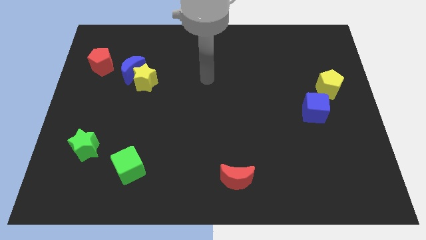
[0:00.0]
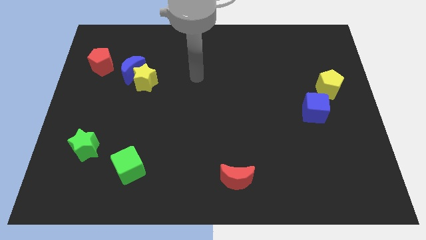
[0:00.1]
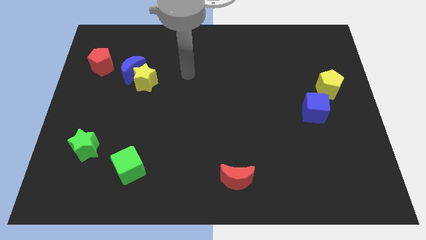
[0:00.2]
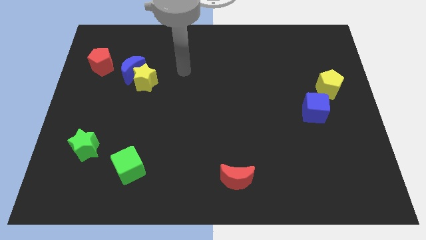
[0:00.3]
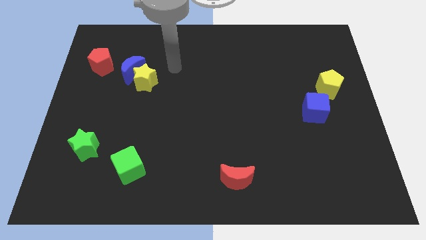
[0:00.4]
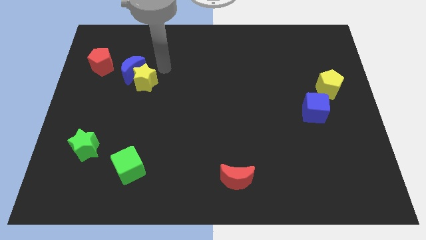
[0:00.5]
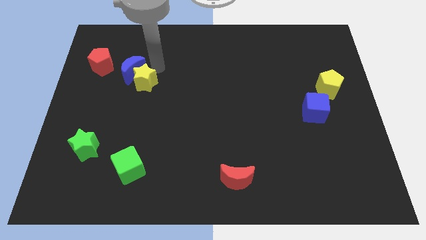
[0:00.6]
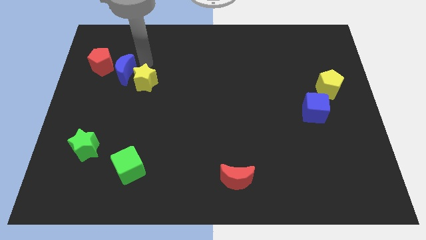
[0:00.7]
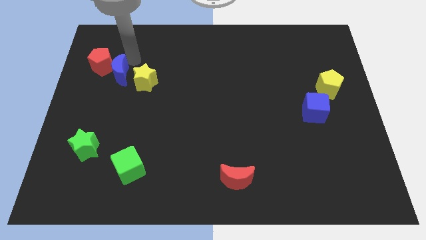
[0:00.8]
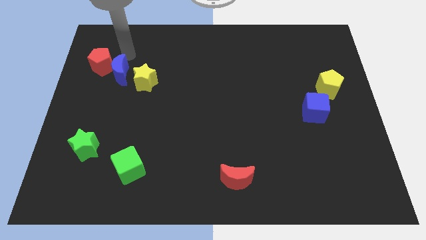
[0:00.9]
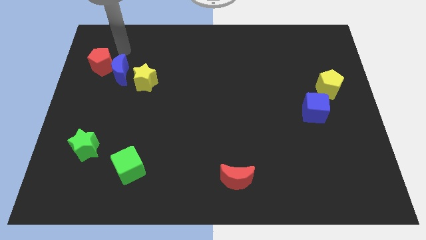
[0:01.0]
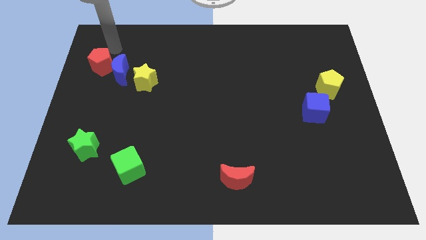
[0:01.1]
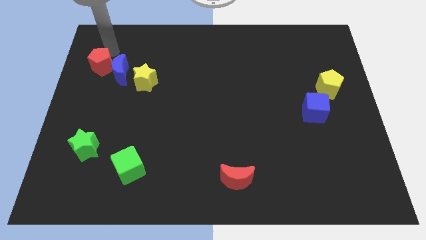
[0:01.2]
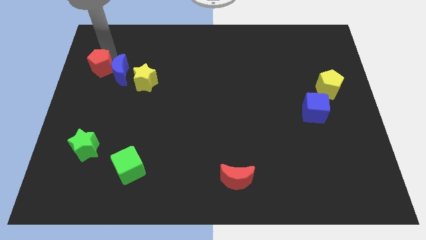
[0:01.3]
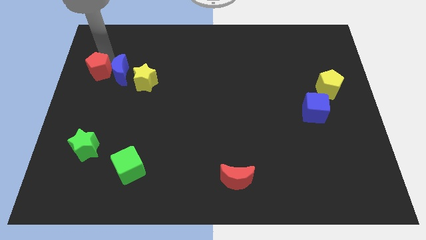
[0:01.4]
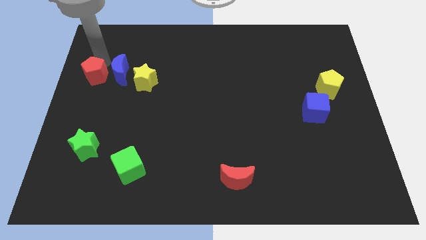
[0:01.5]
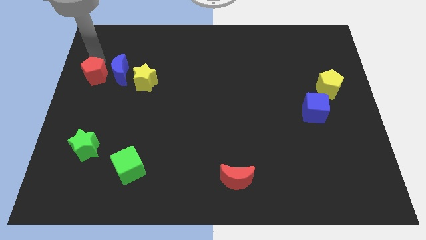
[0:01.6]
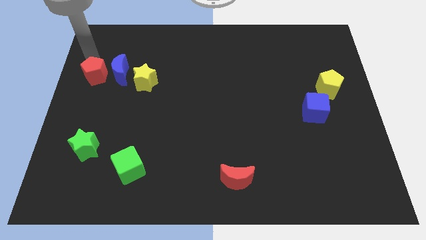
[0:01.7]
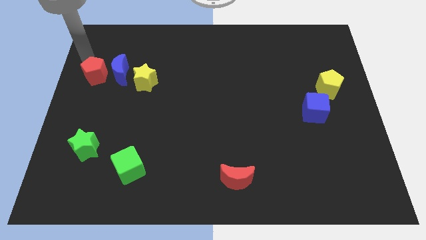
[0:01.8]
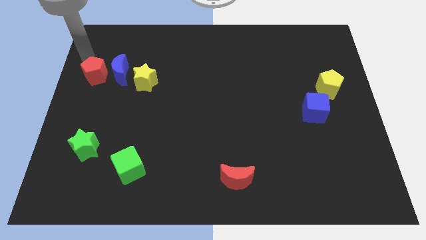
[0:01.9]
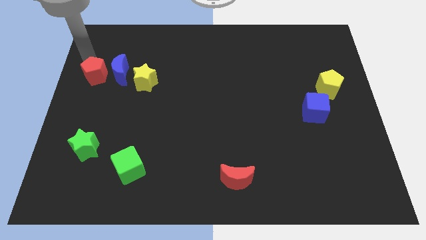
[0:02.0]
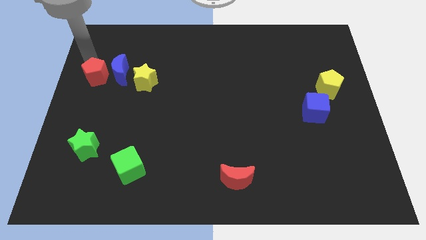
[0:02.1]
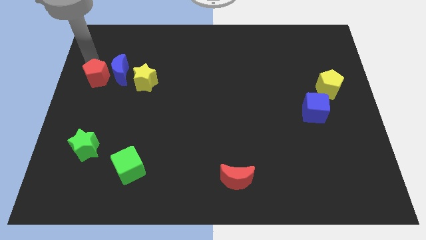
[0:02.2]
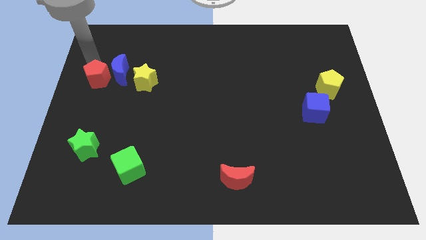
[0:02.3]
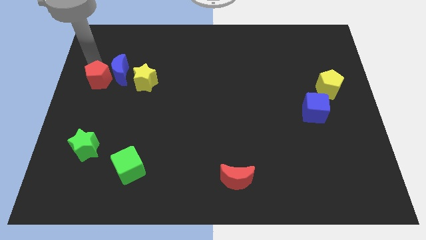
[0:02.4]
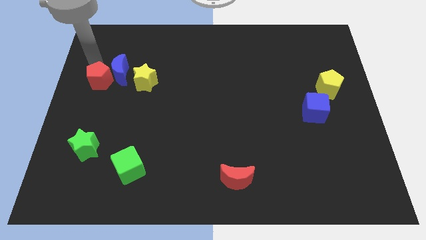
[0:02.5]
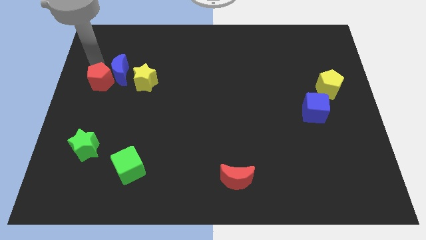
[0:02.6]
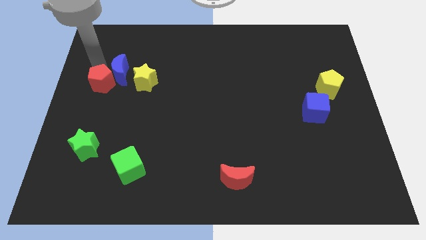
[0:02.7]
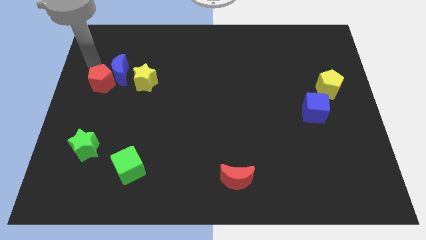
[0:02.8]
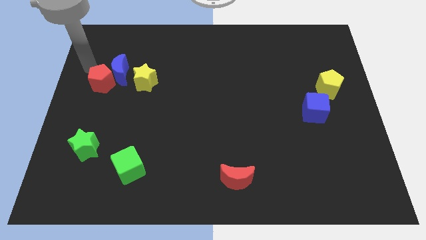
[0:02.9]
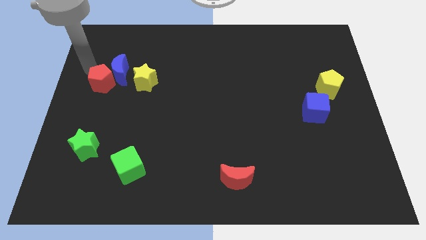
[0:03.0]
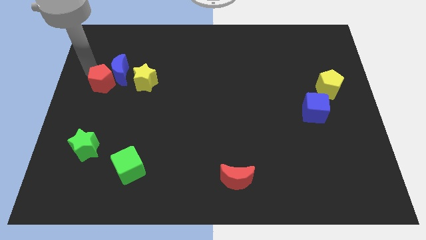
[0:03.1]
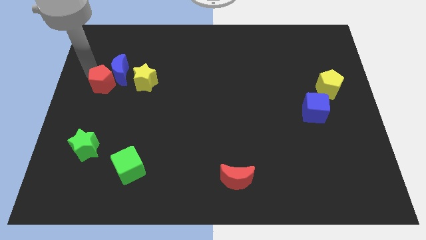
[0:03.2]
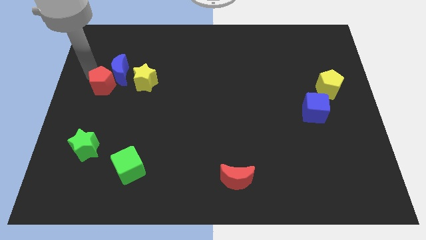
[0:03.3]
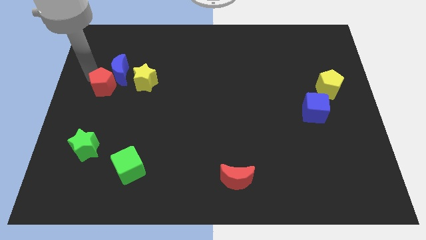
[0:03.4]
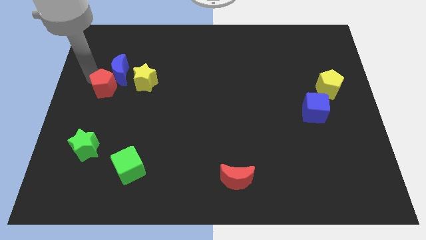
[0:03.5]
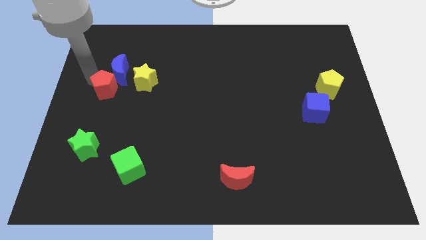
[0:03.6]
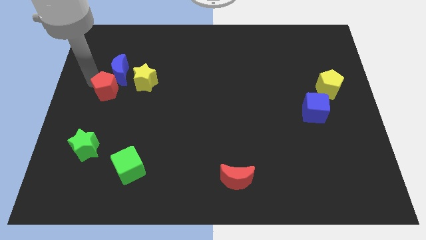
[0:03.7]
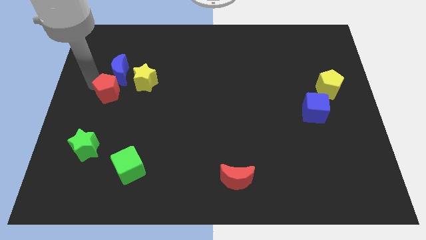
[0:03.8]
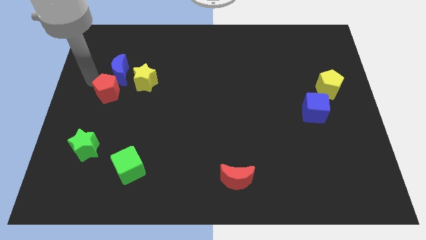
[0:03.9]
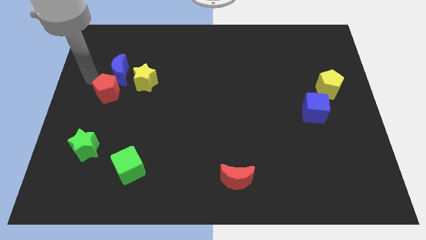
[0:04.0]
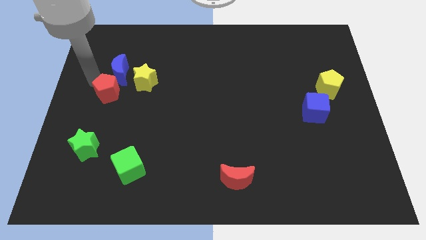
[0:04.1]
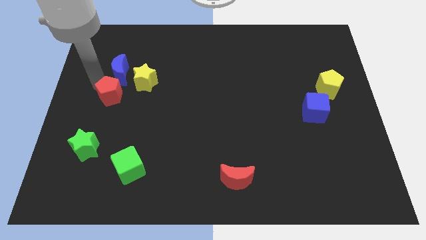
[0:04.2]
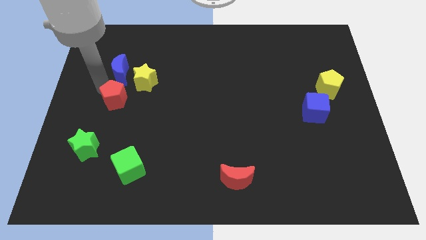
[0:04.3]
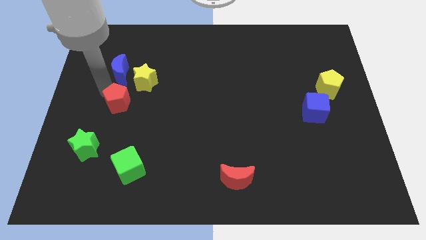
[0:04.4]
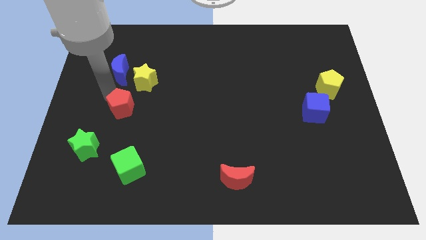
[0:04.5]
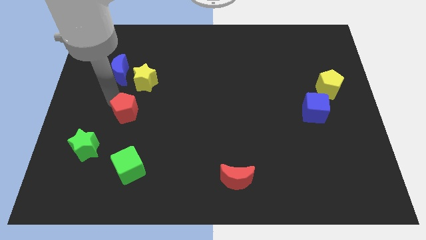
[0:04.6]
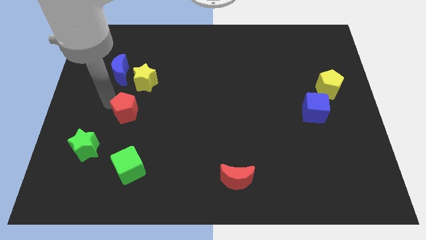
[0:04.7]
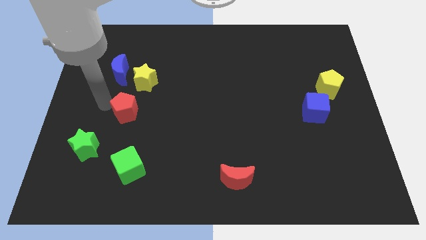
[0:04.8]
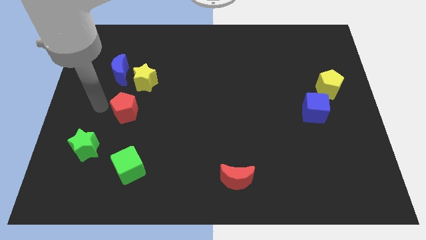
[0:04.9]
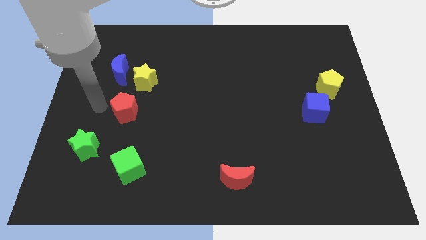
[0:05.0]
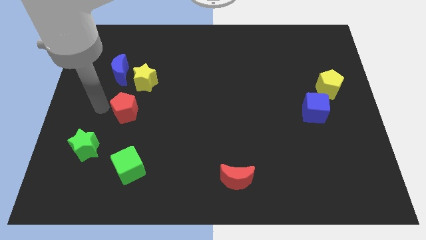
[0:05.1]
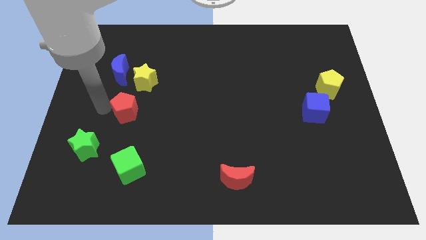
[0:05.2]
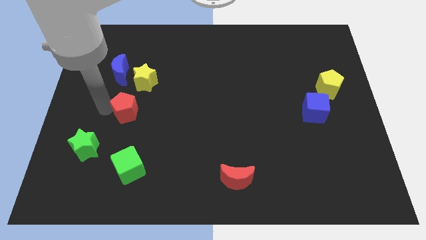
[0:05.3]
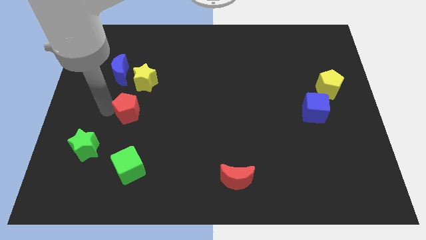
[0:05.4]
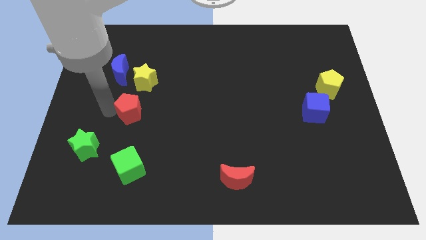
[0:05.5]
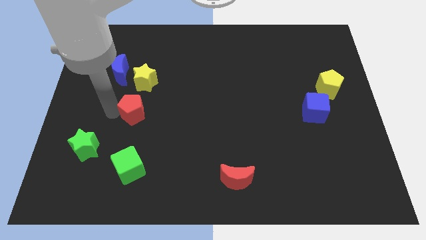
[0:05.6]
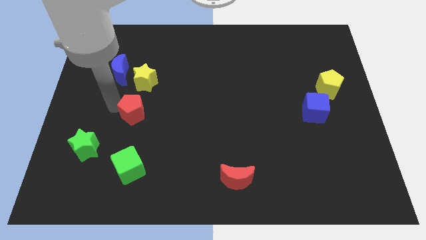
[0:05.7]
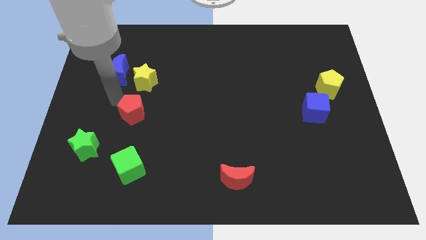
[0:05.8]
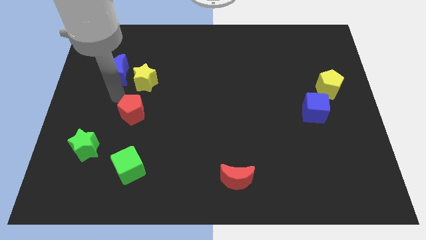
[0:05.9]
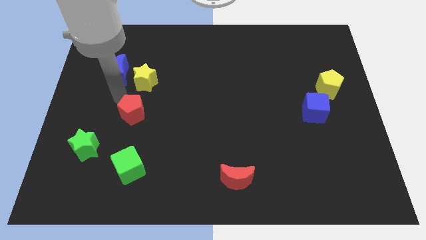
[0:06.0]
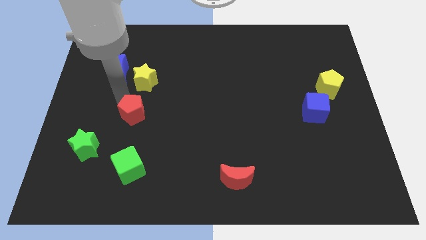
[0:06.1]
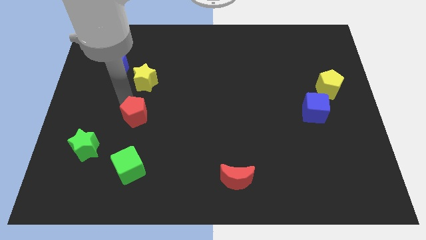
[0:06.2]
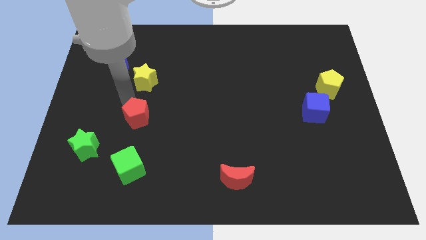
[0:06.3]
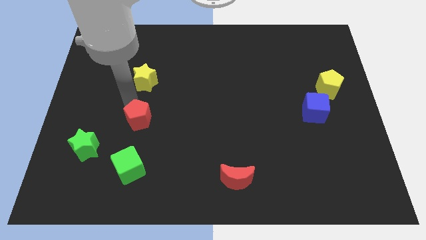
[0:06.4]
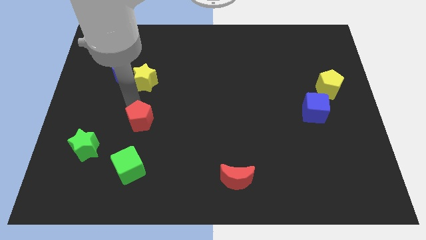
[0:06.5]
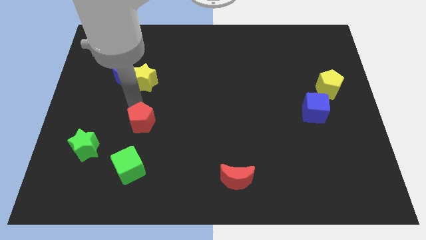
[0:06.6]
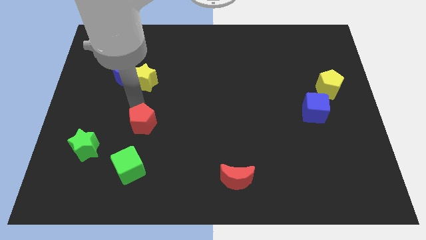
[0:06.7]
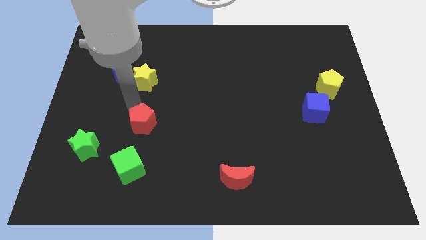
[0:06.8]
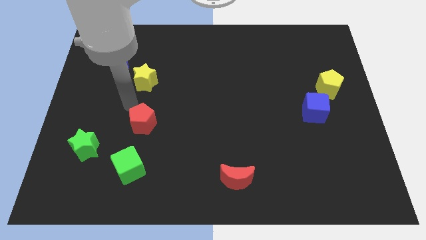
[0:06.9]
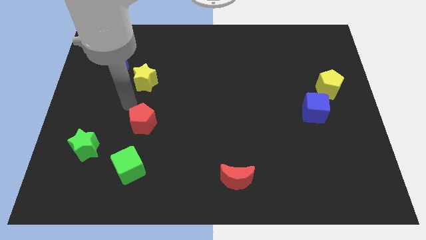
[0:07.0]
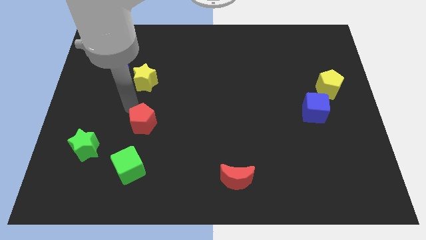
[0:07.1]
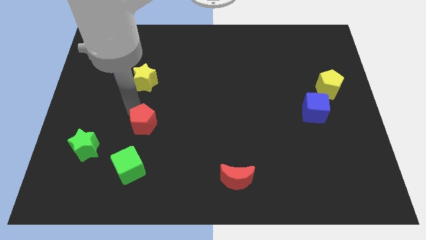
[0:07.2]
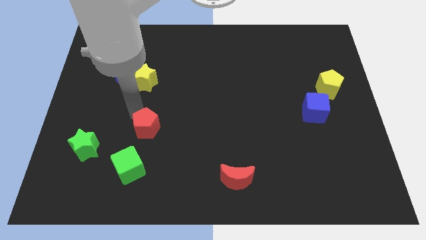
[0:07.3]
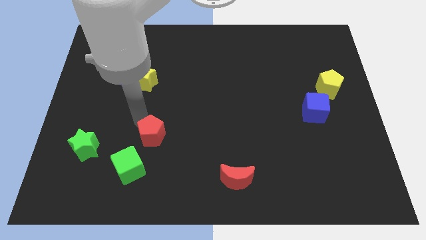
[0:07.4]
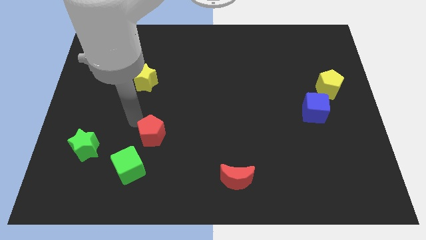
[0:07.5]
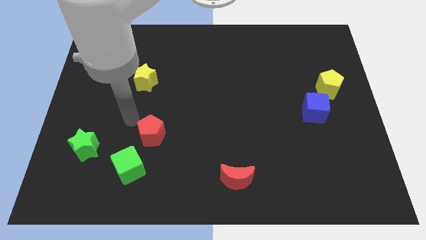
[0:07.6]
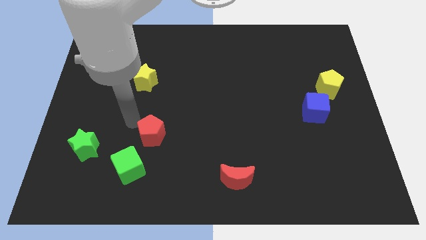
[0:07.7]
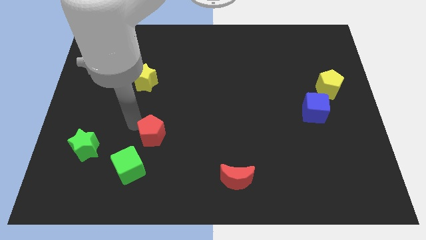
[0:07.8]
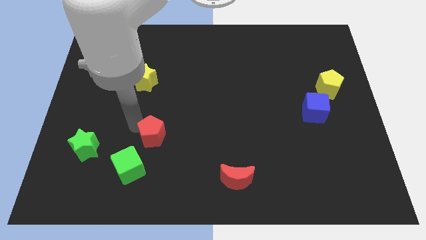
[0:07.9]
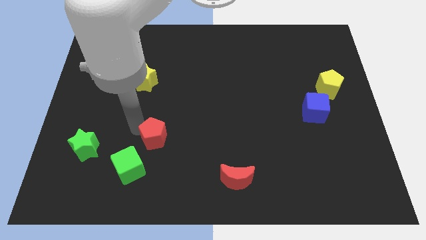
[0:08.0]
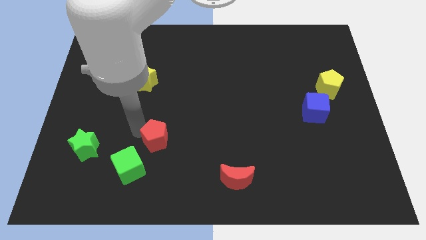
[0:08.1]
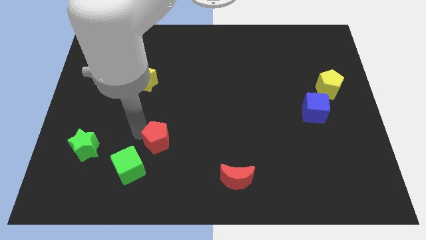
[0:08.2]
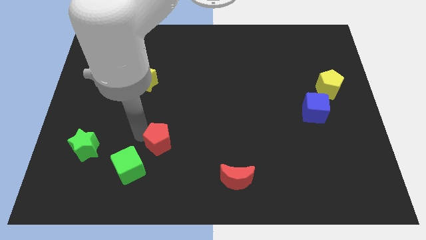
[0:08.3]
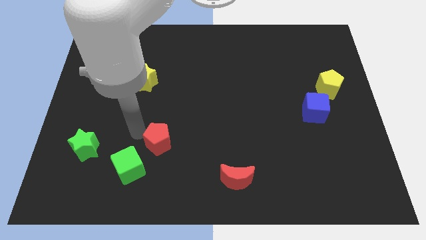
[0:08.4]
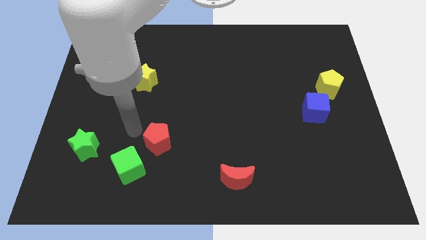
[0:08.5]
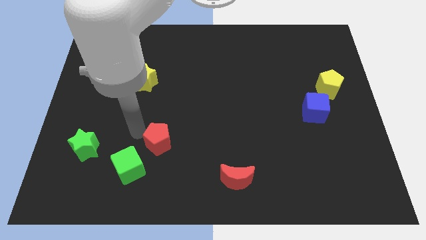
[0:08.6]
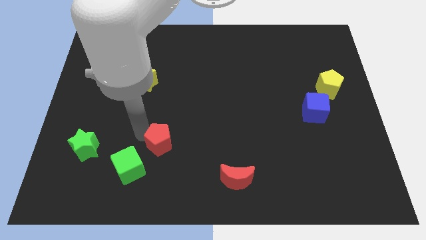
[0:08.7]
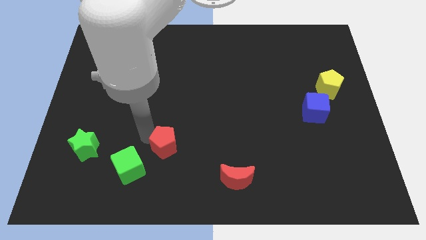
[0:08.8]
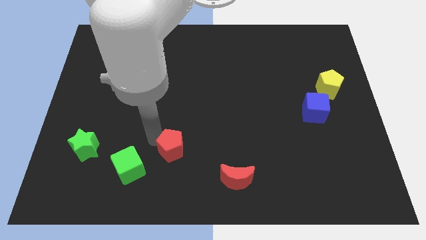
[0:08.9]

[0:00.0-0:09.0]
slide the red pentagon to the right side of the green cube
